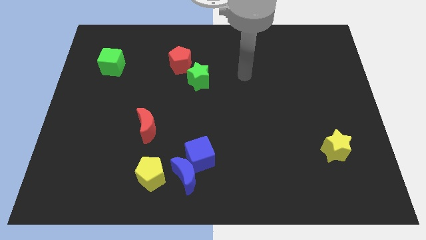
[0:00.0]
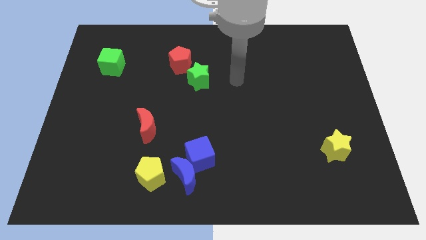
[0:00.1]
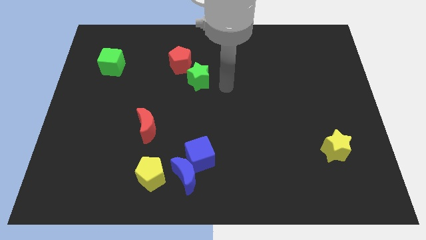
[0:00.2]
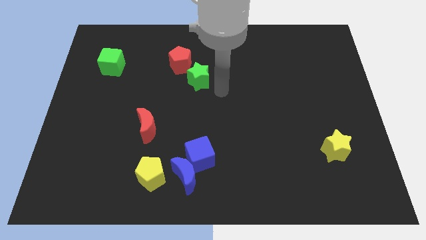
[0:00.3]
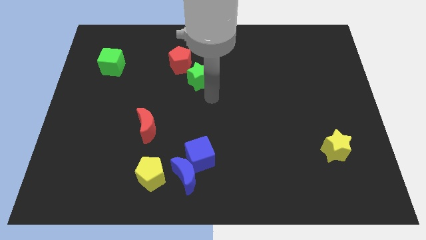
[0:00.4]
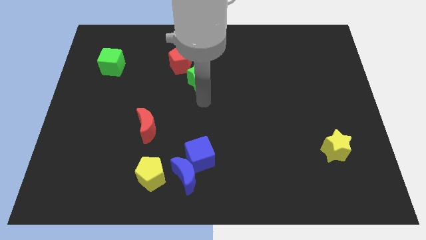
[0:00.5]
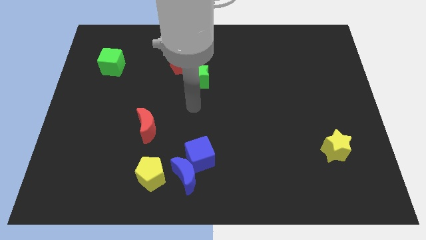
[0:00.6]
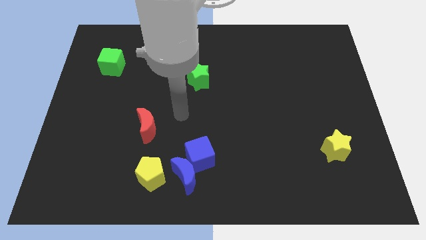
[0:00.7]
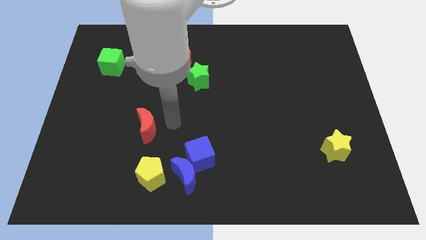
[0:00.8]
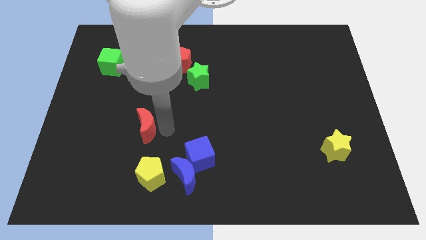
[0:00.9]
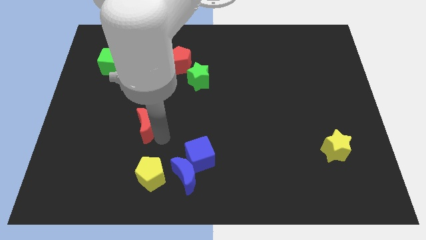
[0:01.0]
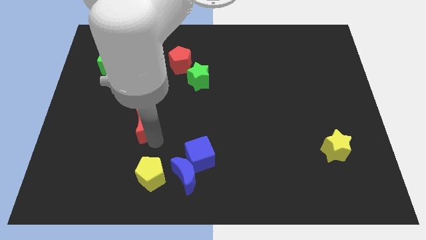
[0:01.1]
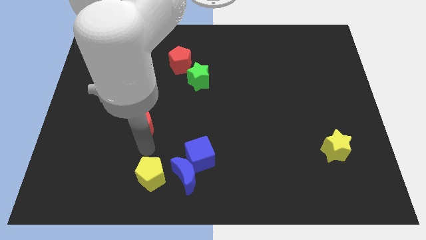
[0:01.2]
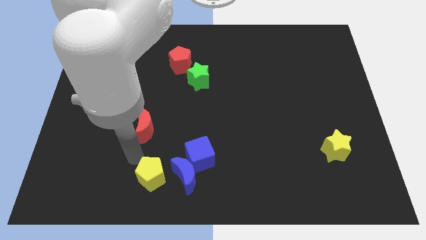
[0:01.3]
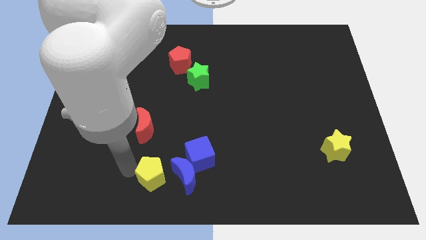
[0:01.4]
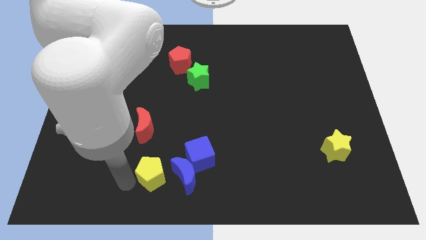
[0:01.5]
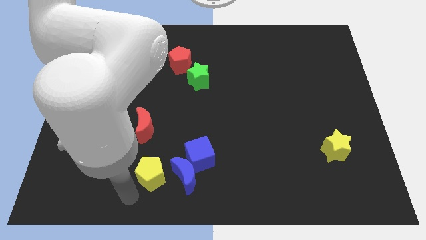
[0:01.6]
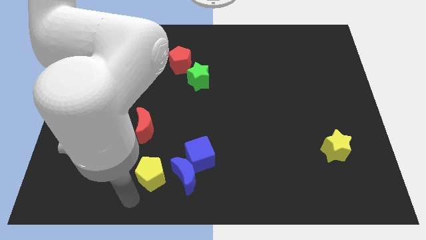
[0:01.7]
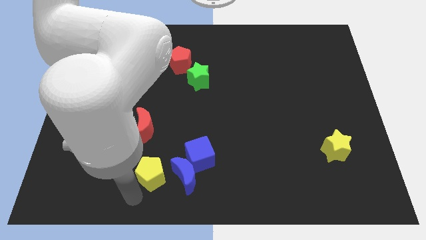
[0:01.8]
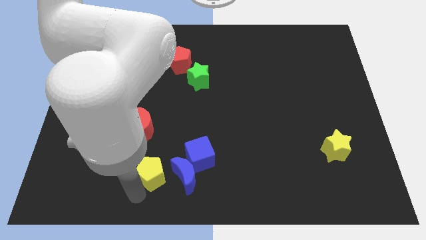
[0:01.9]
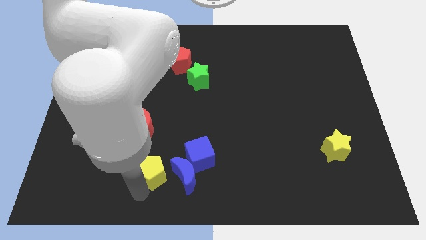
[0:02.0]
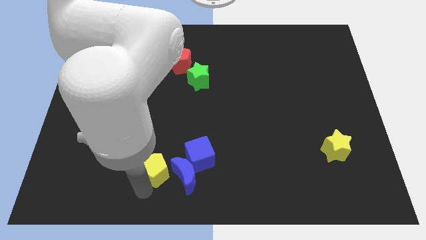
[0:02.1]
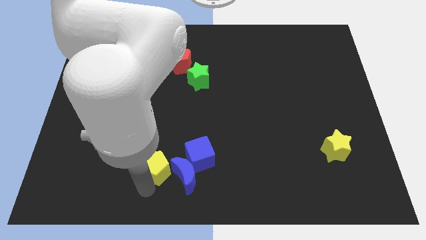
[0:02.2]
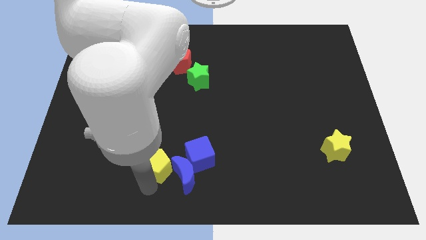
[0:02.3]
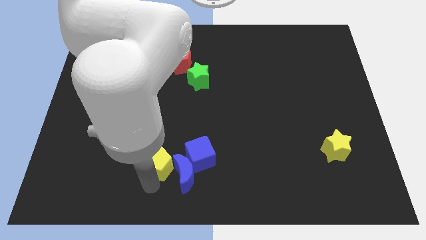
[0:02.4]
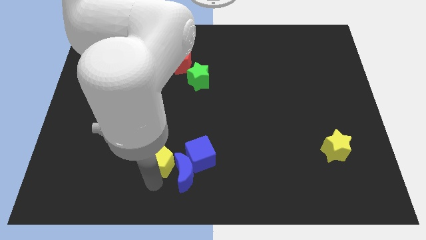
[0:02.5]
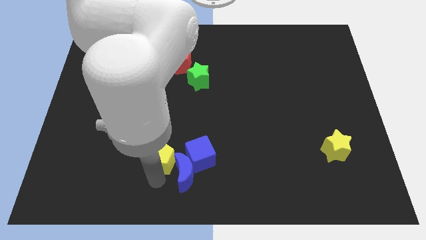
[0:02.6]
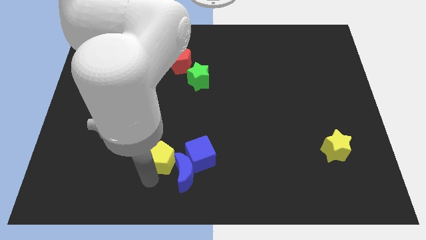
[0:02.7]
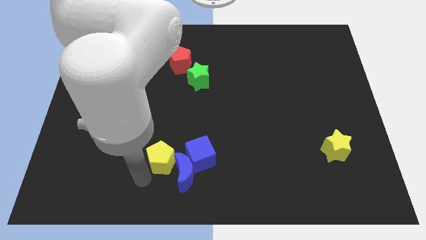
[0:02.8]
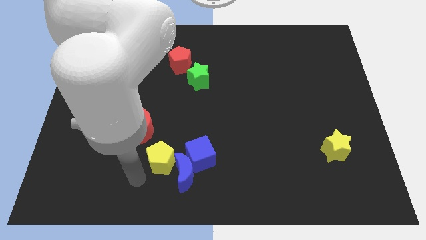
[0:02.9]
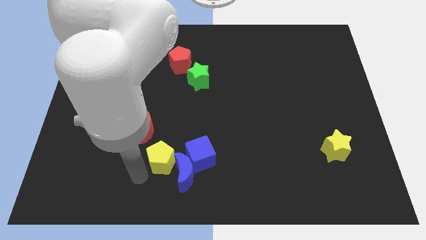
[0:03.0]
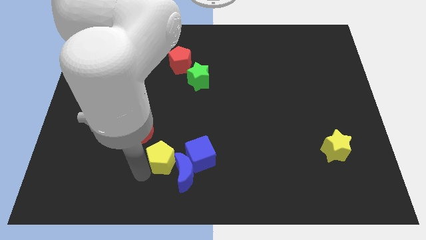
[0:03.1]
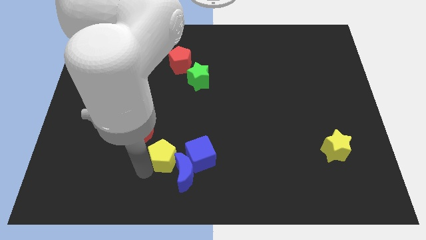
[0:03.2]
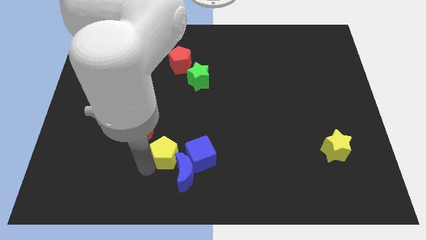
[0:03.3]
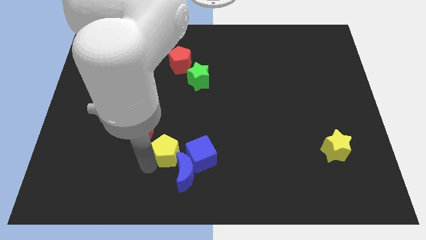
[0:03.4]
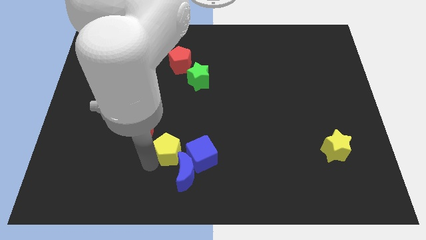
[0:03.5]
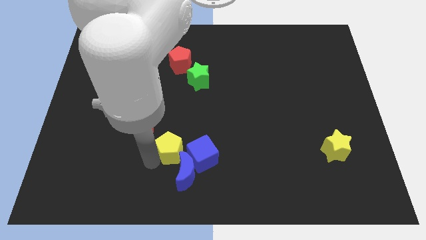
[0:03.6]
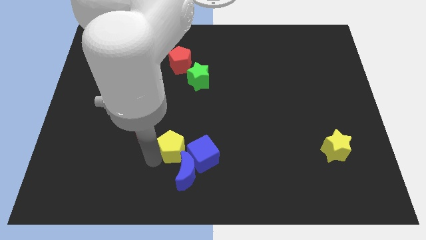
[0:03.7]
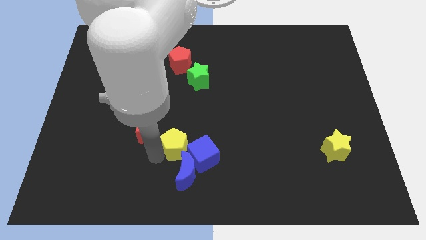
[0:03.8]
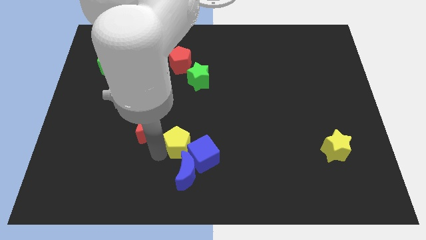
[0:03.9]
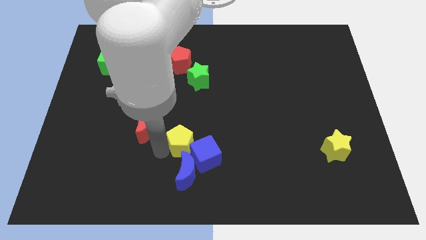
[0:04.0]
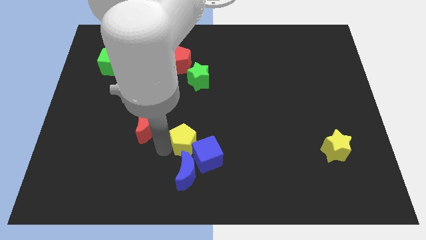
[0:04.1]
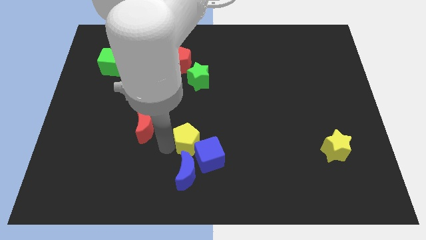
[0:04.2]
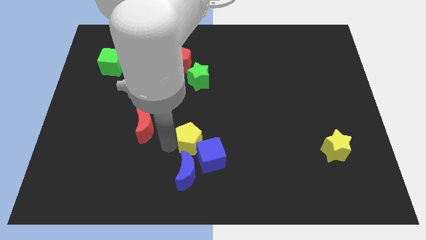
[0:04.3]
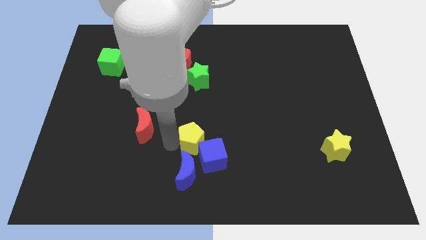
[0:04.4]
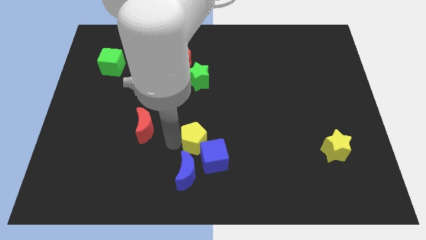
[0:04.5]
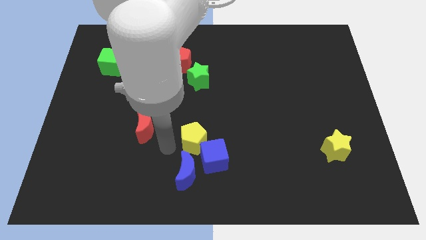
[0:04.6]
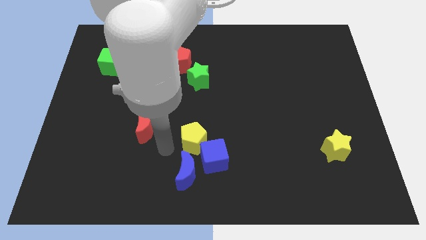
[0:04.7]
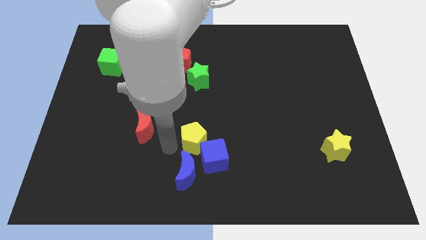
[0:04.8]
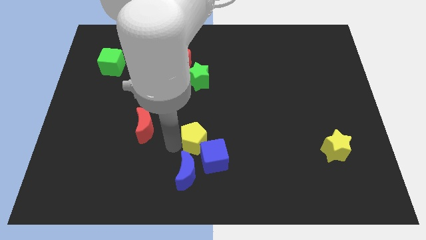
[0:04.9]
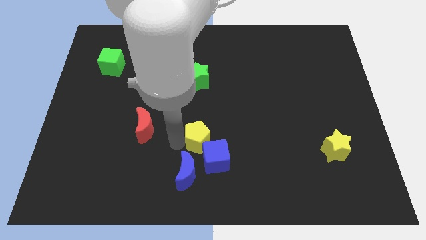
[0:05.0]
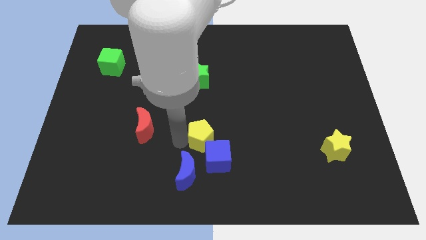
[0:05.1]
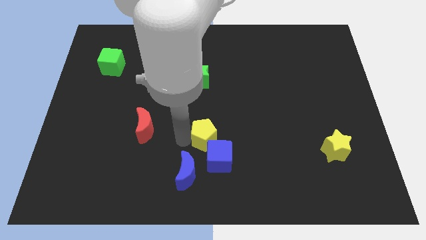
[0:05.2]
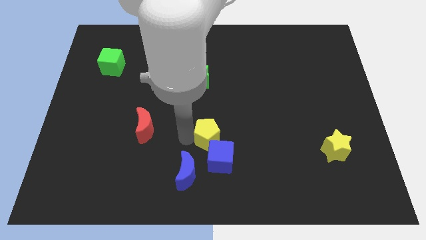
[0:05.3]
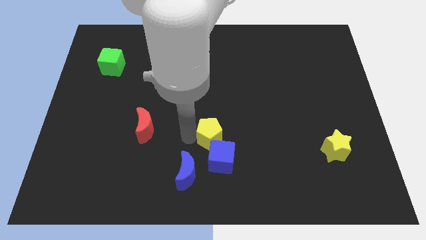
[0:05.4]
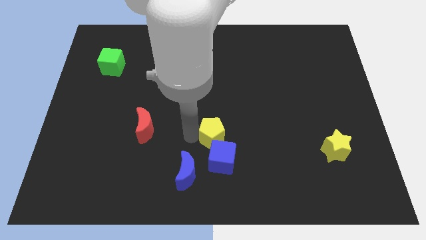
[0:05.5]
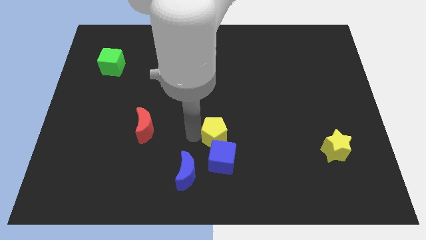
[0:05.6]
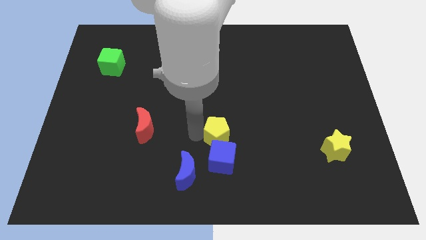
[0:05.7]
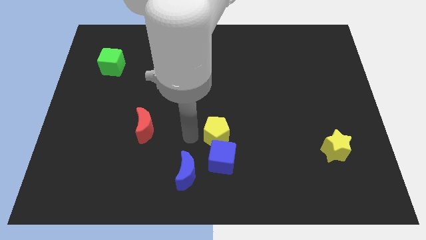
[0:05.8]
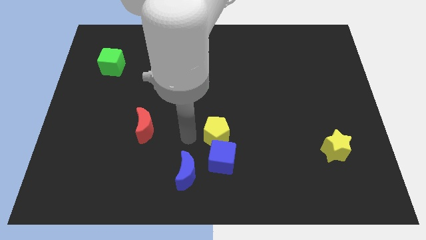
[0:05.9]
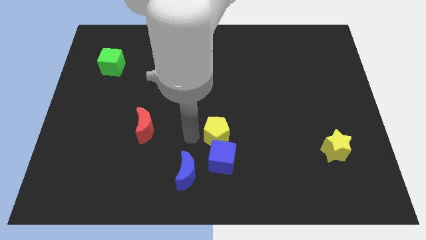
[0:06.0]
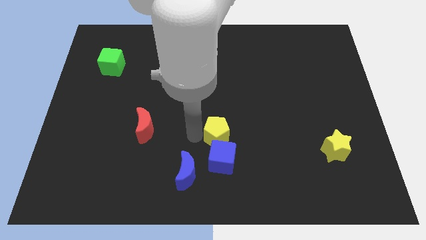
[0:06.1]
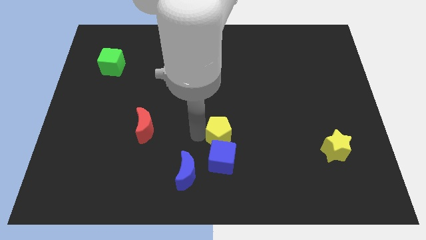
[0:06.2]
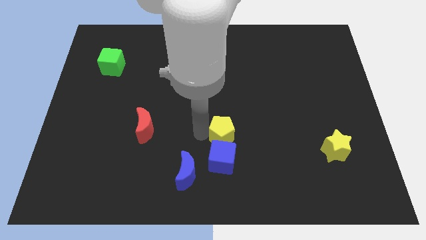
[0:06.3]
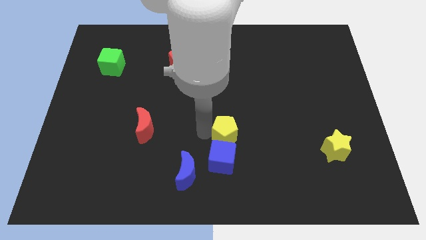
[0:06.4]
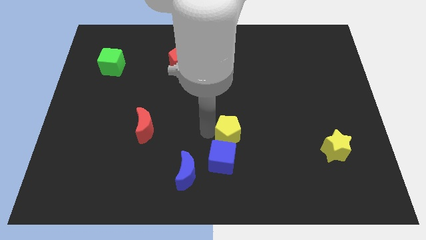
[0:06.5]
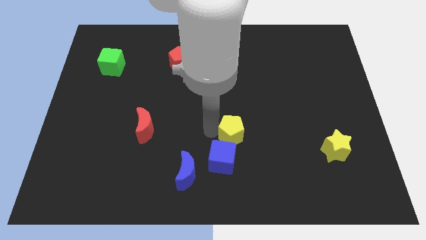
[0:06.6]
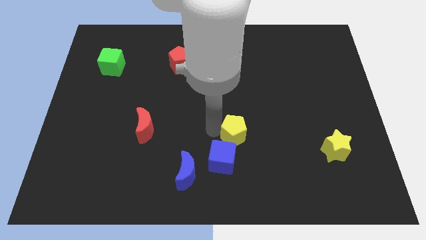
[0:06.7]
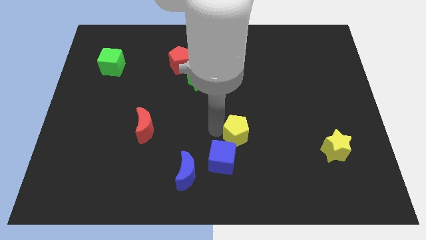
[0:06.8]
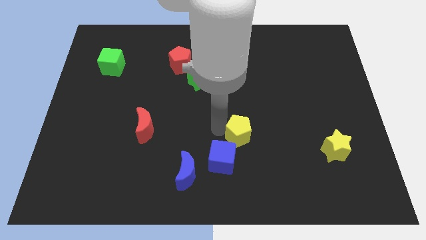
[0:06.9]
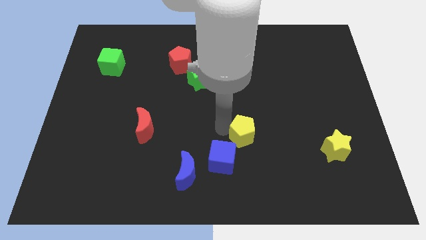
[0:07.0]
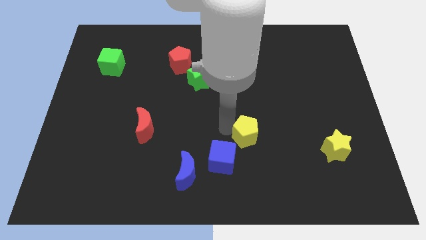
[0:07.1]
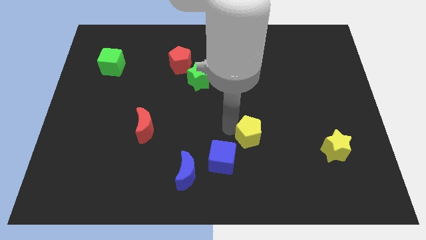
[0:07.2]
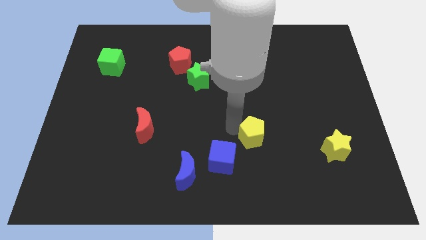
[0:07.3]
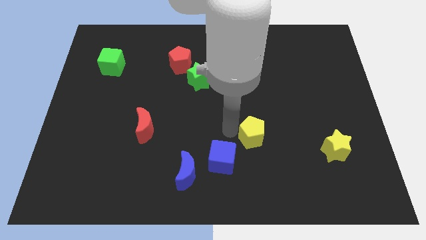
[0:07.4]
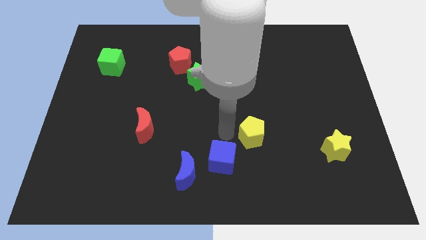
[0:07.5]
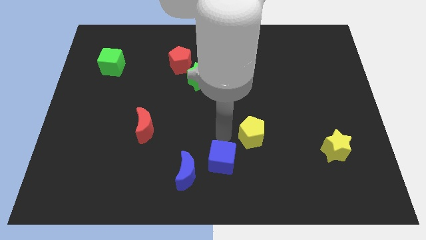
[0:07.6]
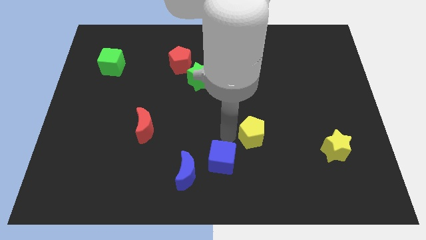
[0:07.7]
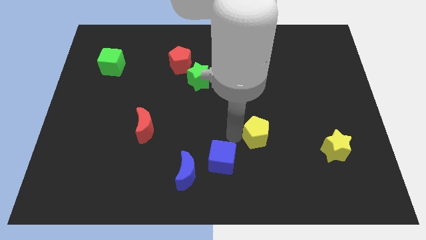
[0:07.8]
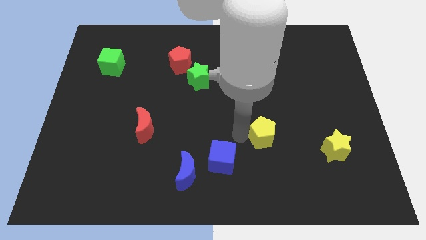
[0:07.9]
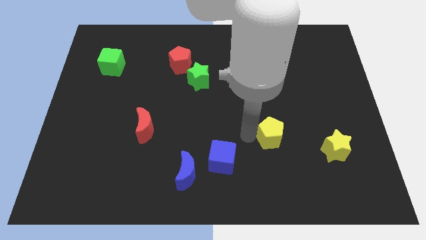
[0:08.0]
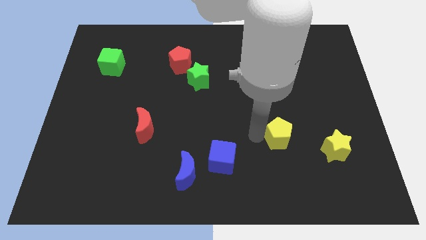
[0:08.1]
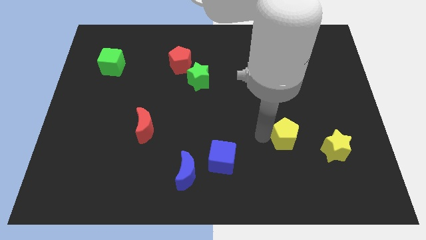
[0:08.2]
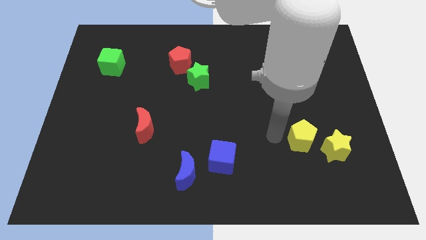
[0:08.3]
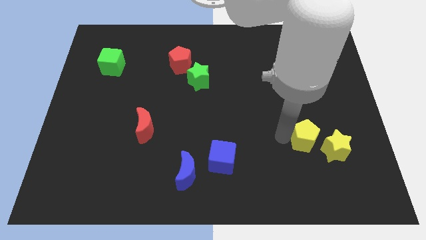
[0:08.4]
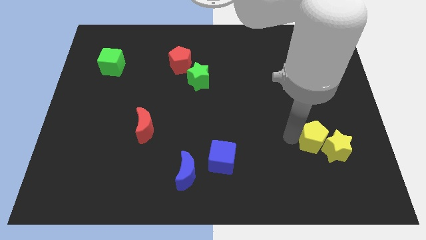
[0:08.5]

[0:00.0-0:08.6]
slide the yellow pentagon towards the yellow star
